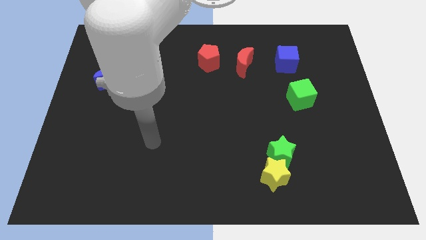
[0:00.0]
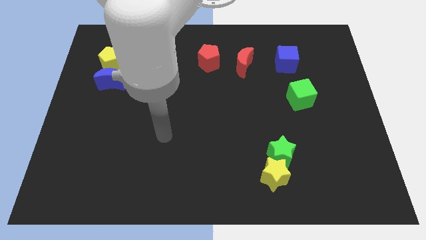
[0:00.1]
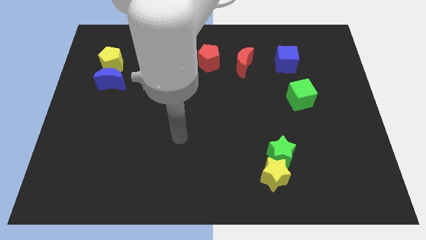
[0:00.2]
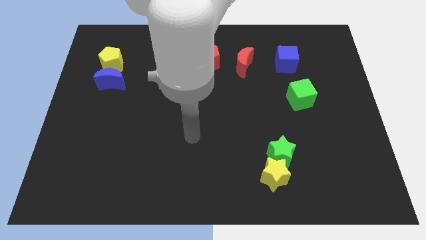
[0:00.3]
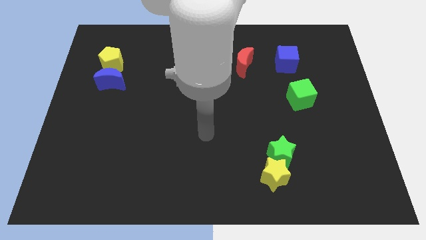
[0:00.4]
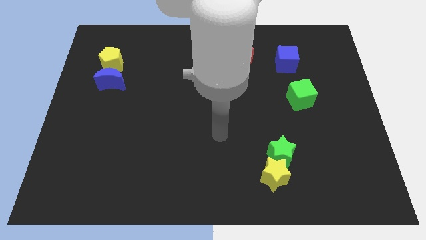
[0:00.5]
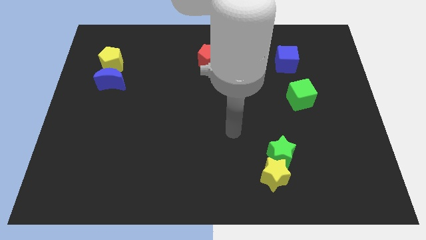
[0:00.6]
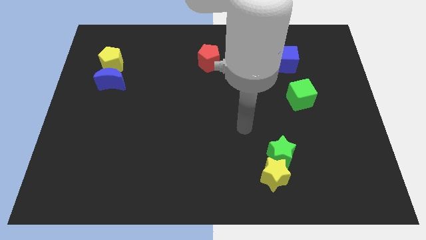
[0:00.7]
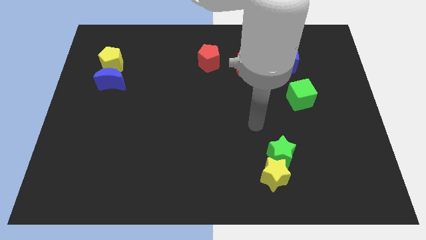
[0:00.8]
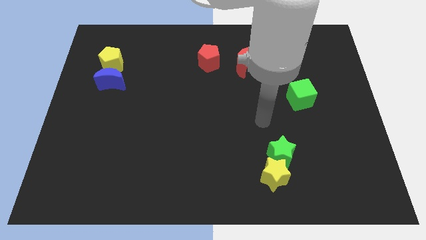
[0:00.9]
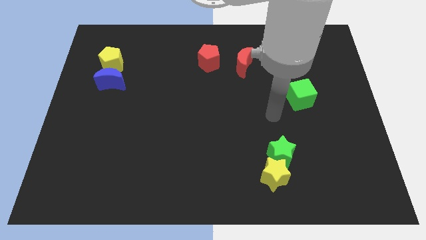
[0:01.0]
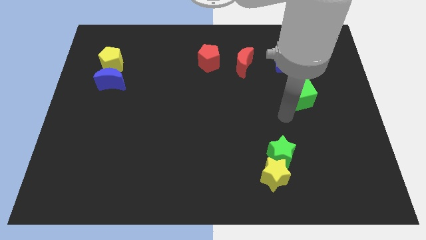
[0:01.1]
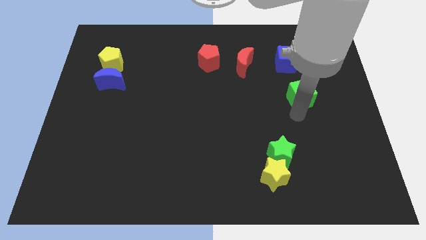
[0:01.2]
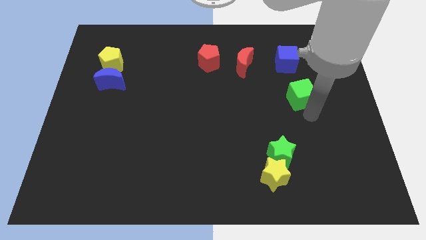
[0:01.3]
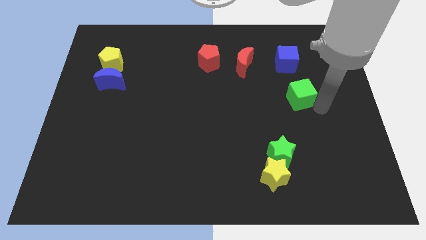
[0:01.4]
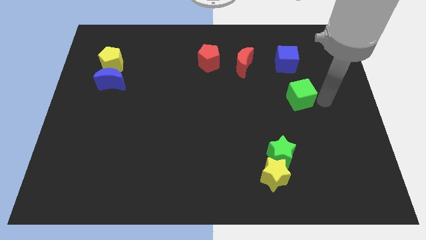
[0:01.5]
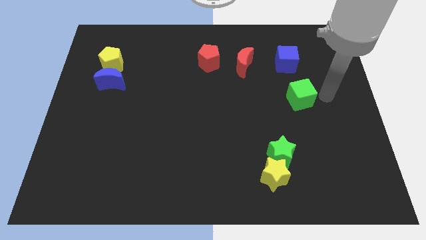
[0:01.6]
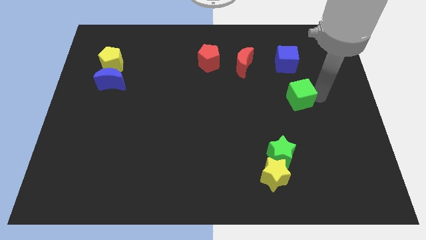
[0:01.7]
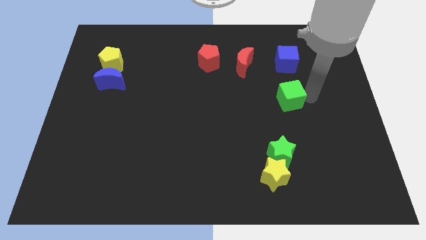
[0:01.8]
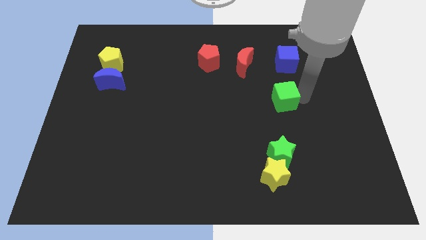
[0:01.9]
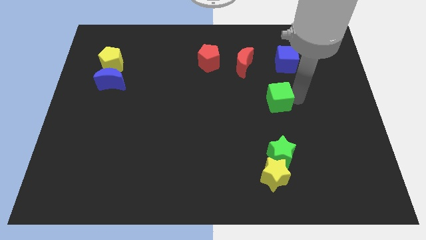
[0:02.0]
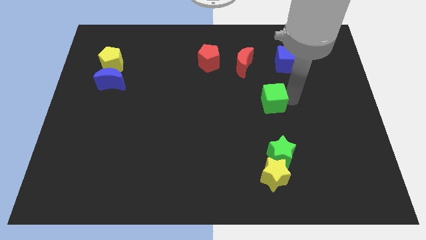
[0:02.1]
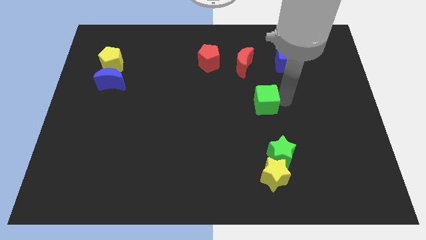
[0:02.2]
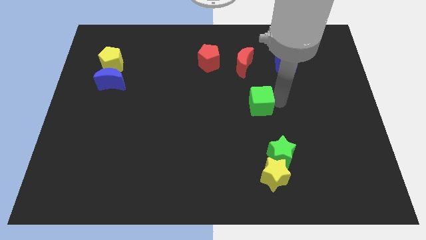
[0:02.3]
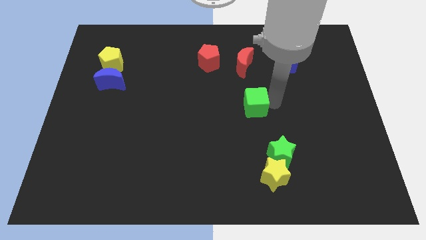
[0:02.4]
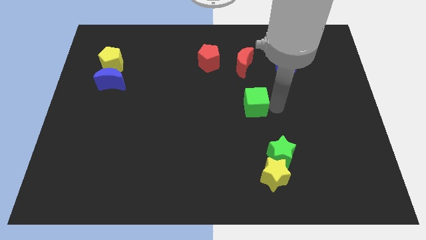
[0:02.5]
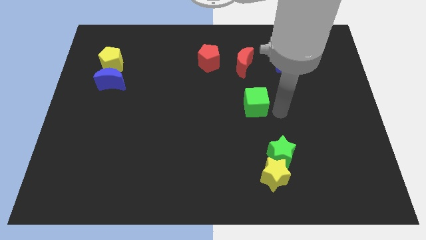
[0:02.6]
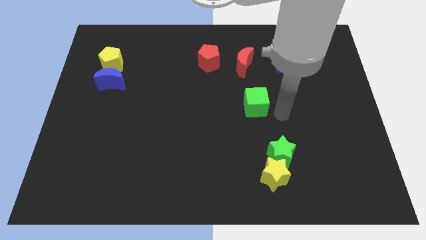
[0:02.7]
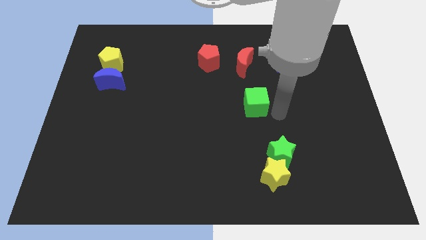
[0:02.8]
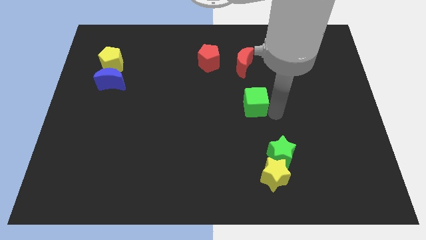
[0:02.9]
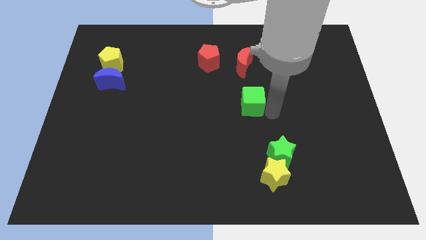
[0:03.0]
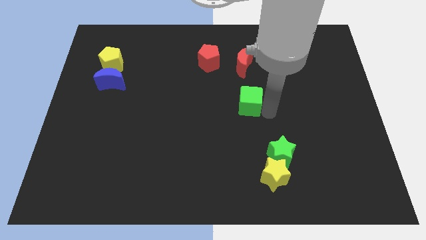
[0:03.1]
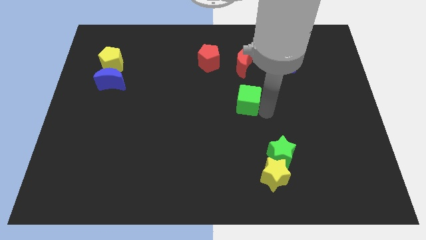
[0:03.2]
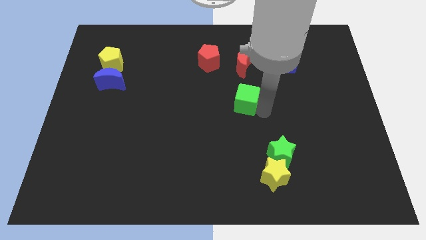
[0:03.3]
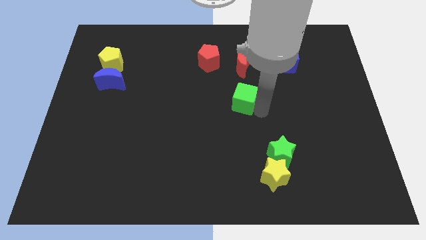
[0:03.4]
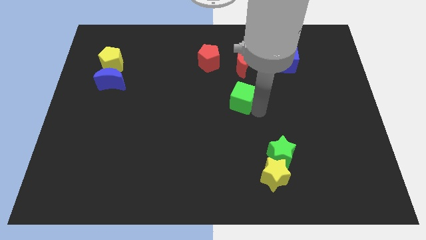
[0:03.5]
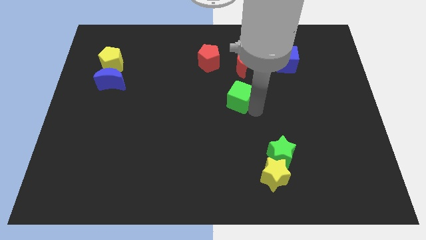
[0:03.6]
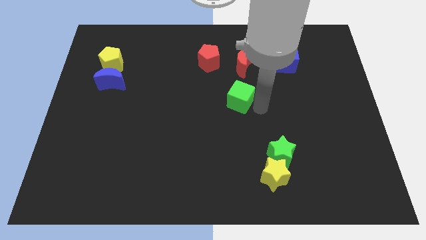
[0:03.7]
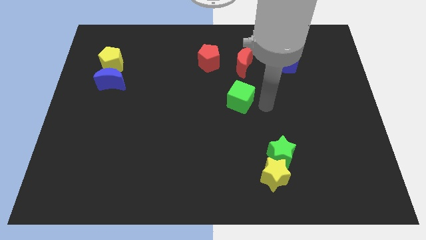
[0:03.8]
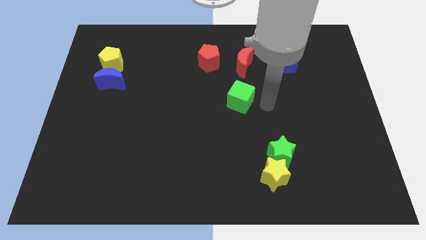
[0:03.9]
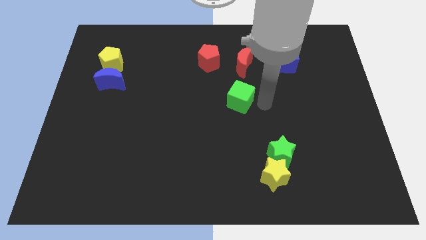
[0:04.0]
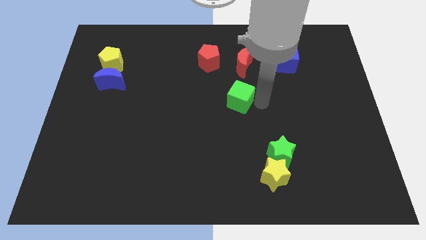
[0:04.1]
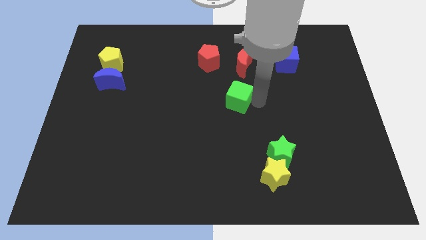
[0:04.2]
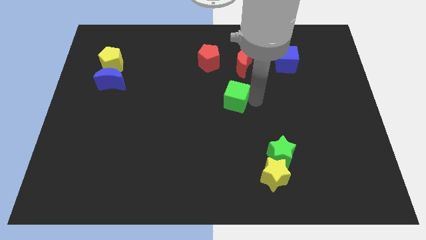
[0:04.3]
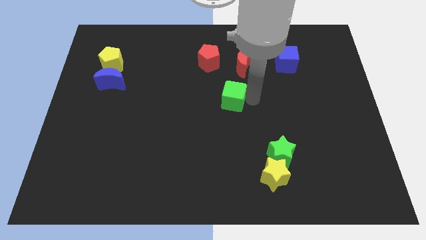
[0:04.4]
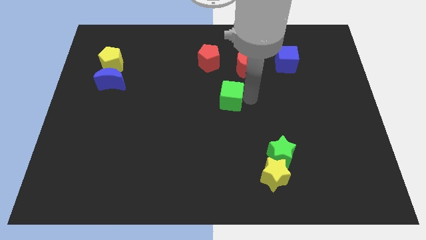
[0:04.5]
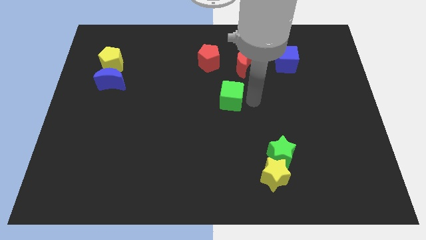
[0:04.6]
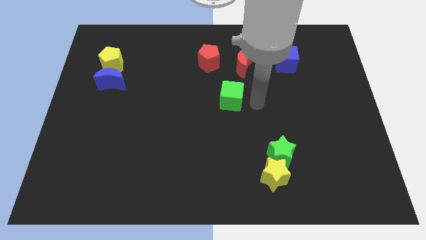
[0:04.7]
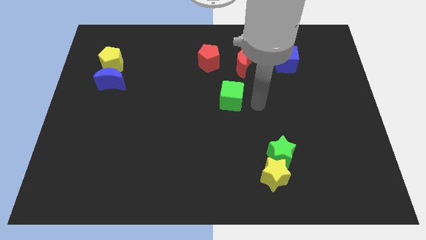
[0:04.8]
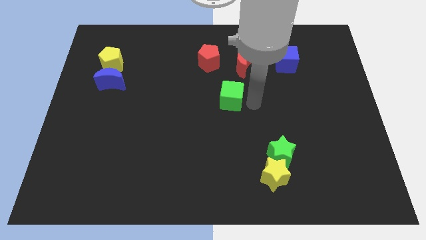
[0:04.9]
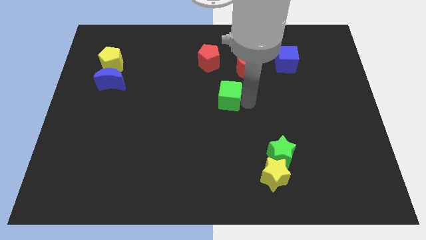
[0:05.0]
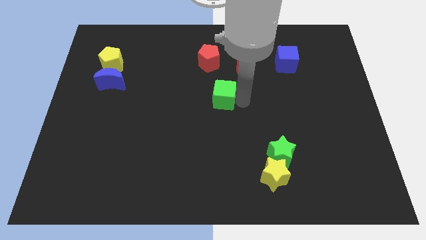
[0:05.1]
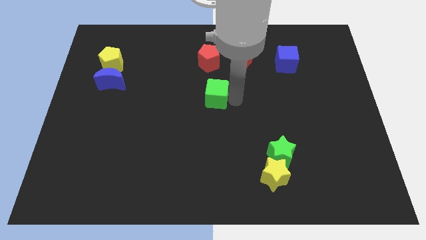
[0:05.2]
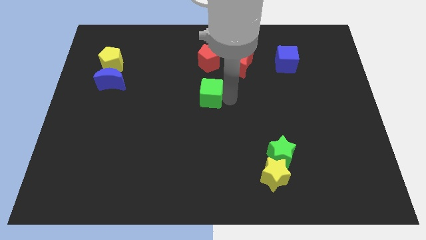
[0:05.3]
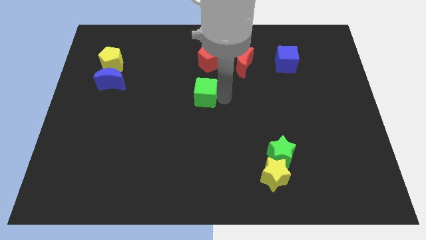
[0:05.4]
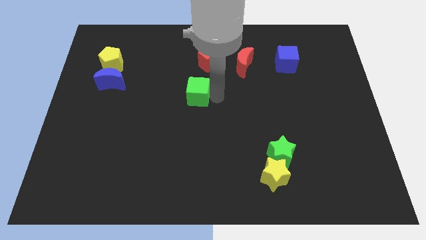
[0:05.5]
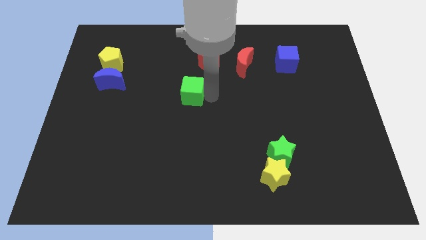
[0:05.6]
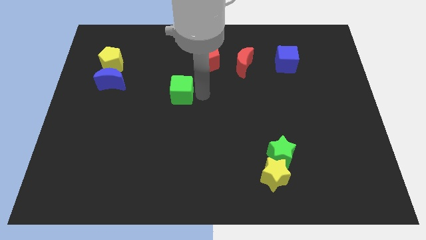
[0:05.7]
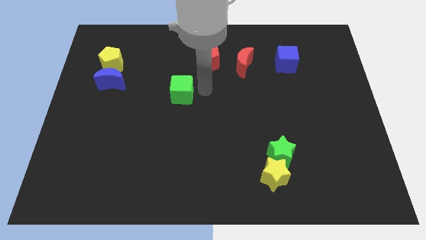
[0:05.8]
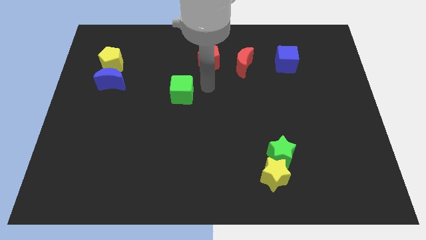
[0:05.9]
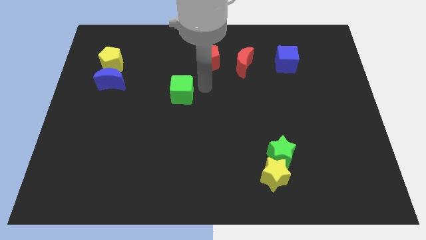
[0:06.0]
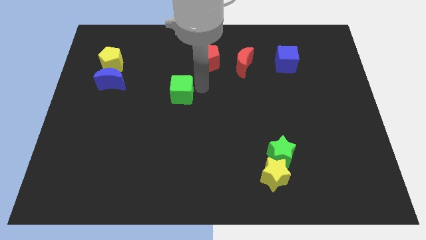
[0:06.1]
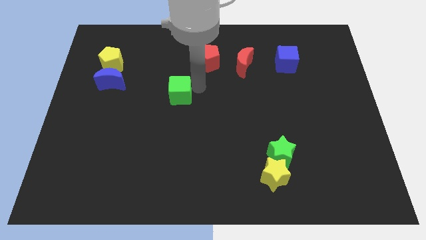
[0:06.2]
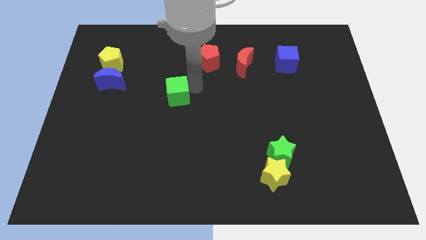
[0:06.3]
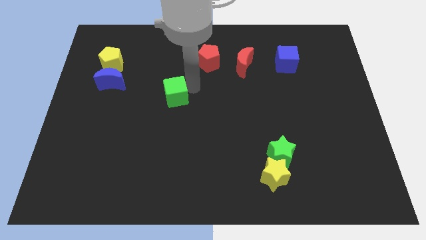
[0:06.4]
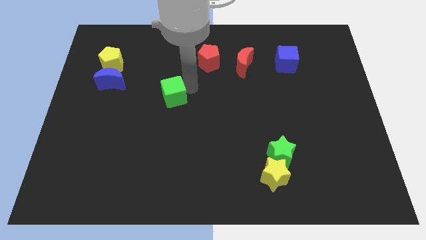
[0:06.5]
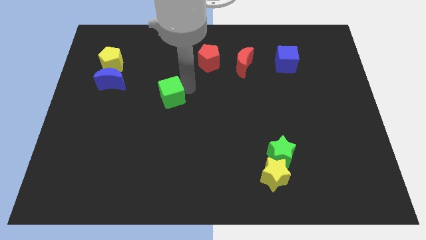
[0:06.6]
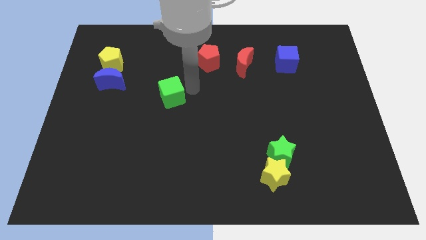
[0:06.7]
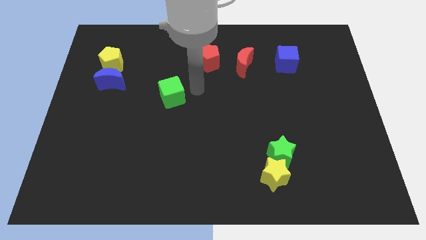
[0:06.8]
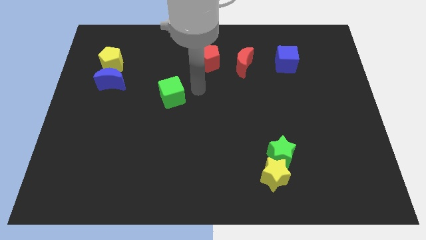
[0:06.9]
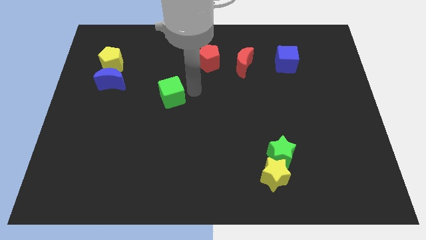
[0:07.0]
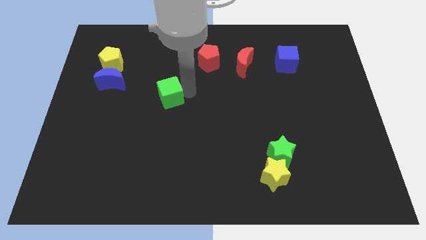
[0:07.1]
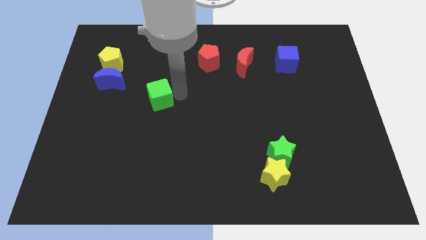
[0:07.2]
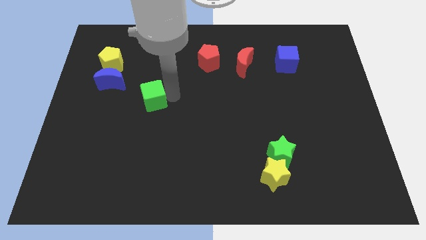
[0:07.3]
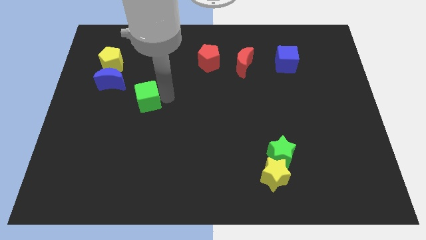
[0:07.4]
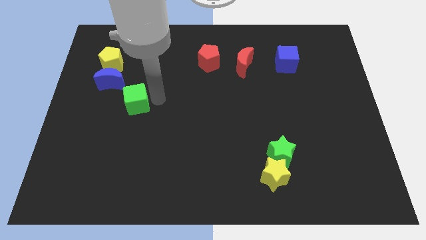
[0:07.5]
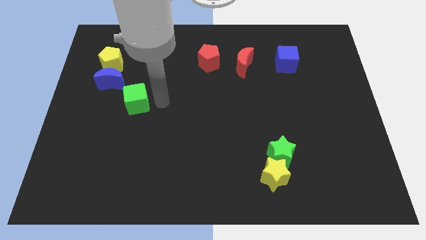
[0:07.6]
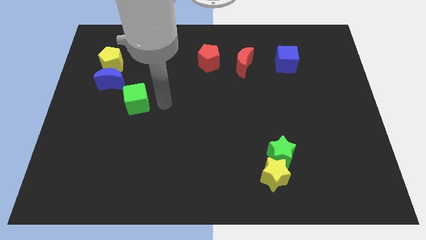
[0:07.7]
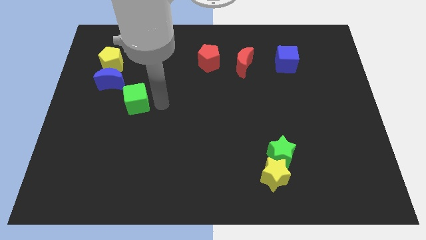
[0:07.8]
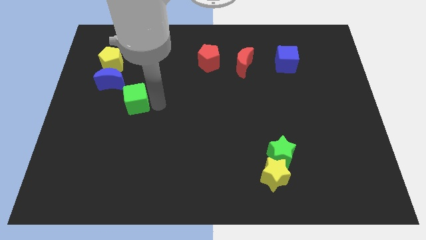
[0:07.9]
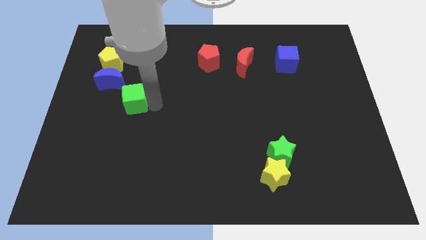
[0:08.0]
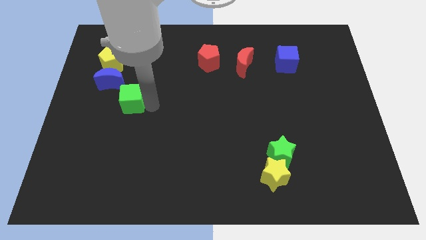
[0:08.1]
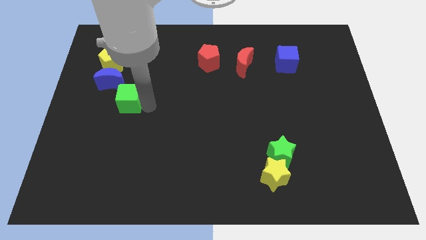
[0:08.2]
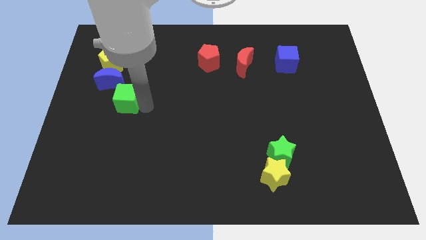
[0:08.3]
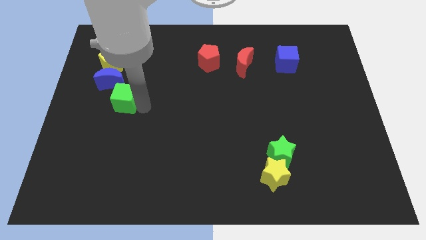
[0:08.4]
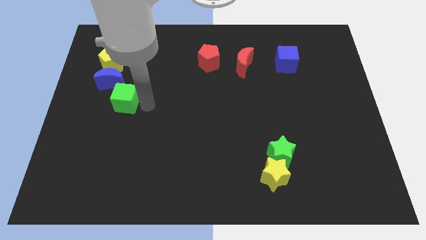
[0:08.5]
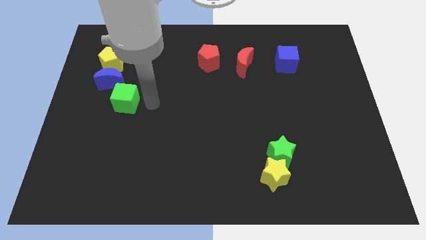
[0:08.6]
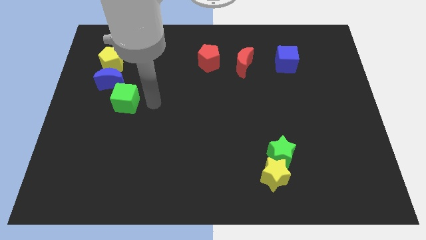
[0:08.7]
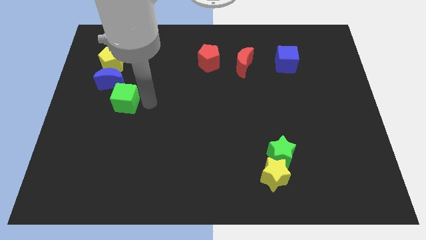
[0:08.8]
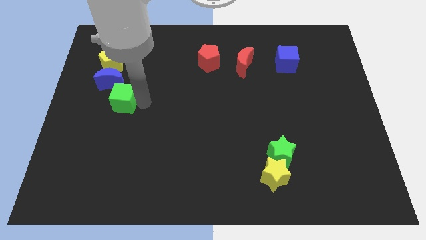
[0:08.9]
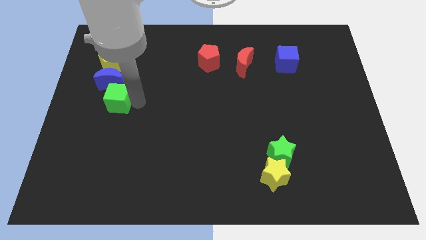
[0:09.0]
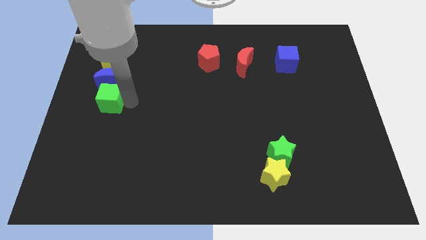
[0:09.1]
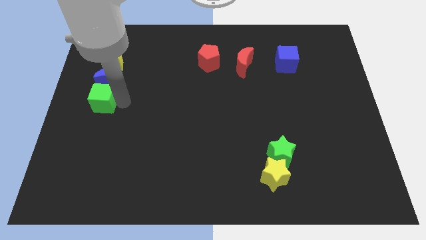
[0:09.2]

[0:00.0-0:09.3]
move the green cube to the left side
